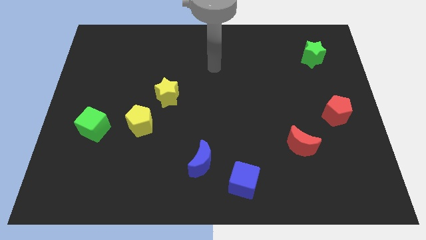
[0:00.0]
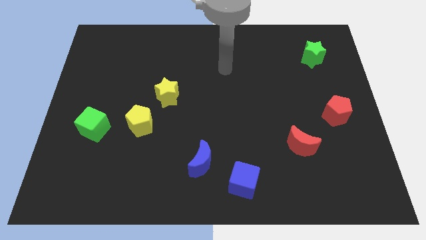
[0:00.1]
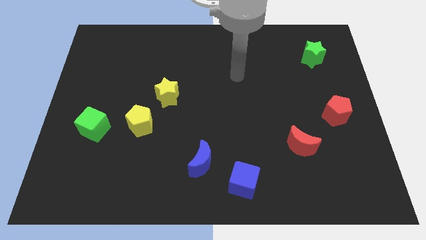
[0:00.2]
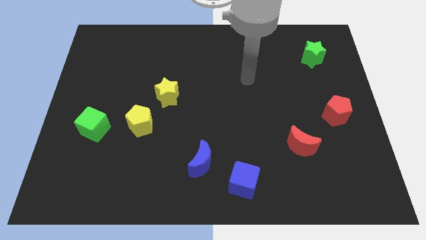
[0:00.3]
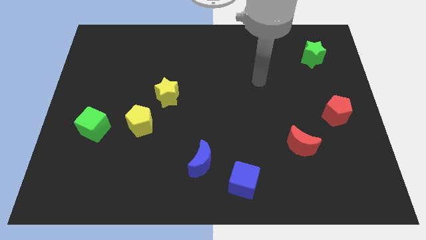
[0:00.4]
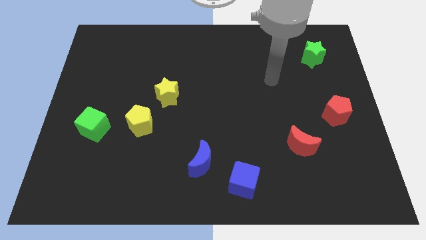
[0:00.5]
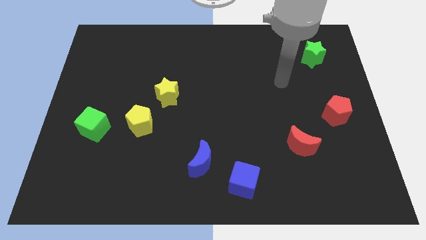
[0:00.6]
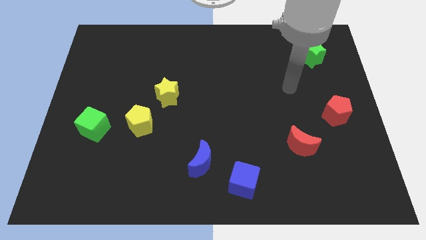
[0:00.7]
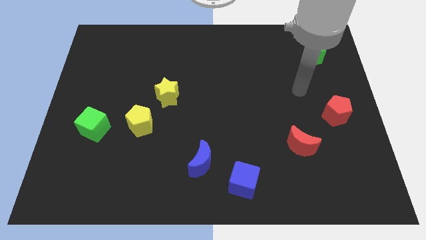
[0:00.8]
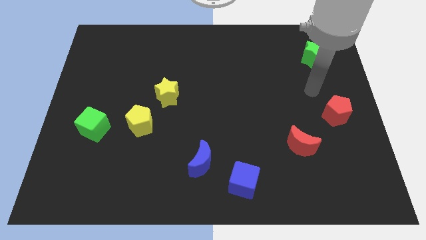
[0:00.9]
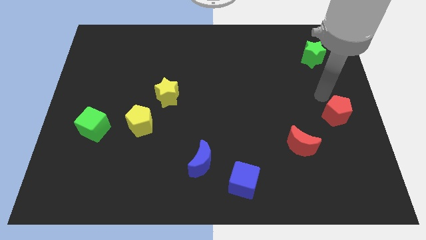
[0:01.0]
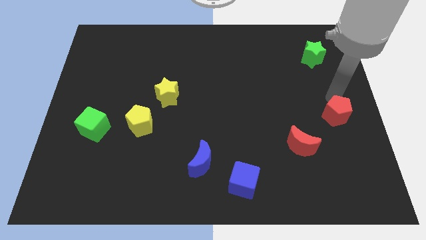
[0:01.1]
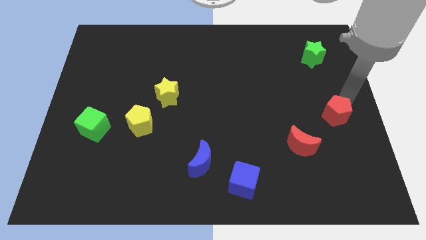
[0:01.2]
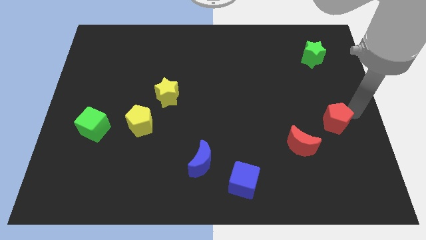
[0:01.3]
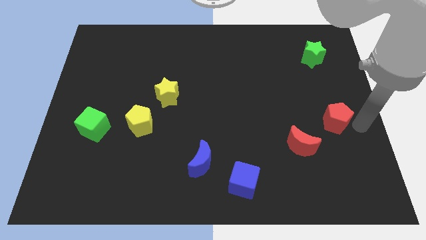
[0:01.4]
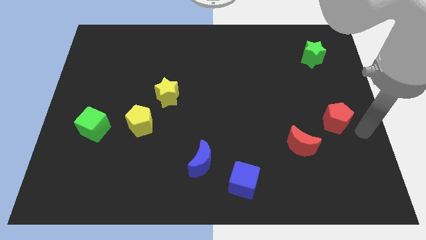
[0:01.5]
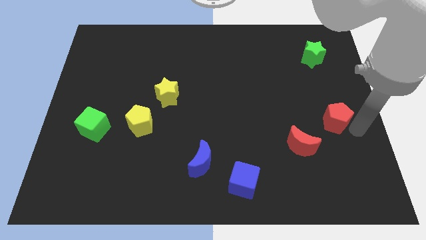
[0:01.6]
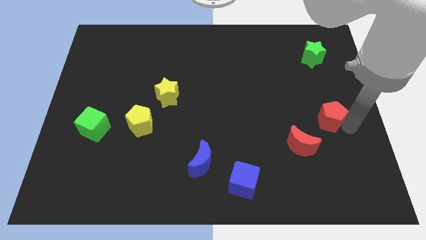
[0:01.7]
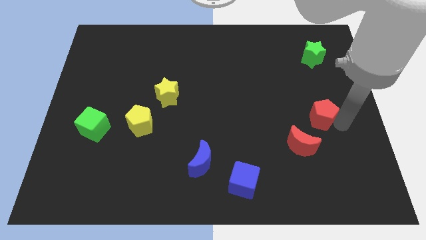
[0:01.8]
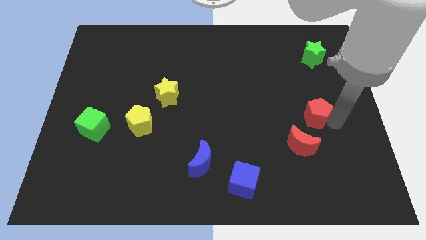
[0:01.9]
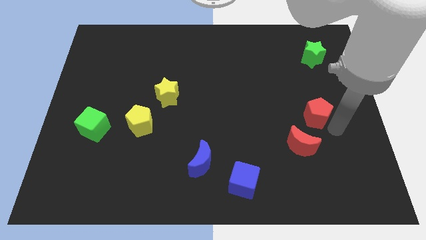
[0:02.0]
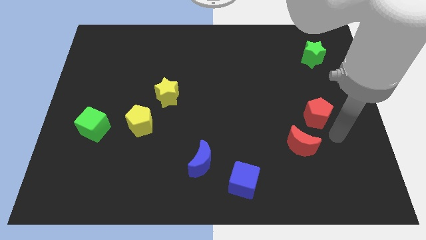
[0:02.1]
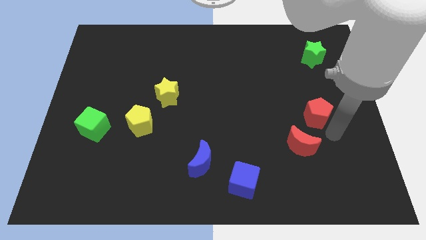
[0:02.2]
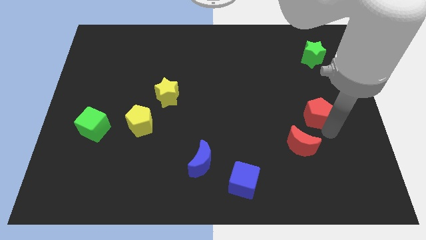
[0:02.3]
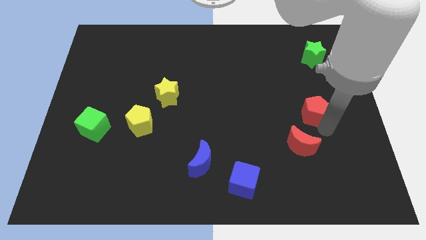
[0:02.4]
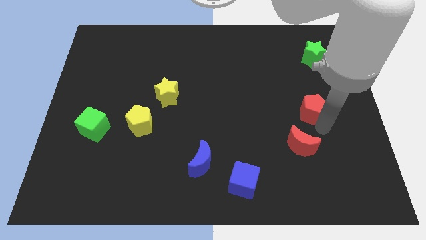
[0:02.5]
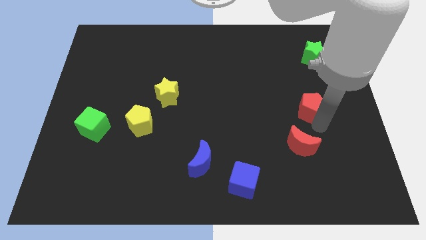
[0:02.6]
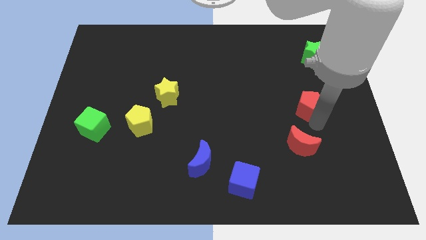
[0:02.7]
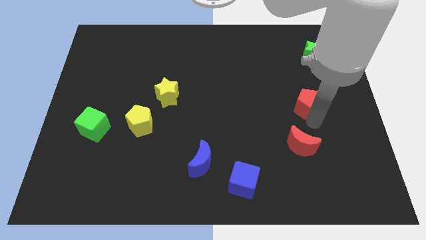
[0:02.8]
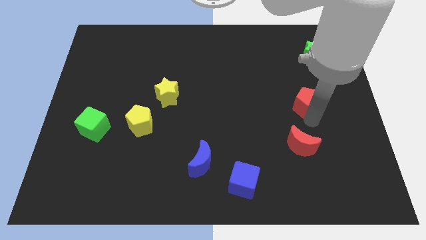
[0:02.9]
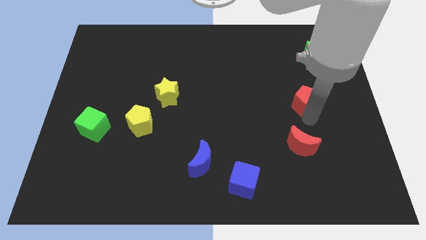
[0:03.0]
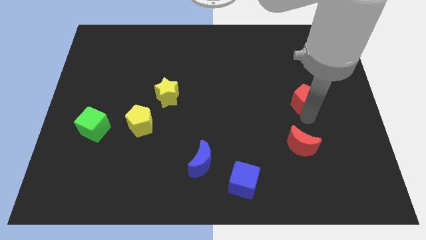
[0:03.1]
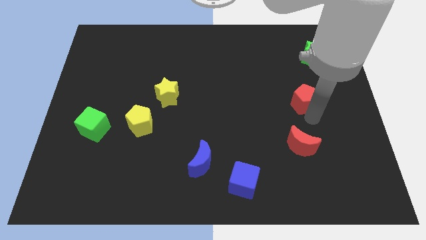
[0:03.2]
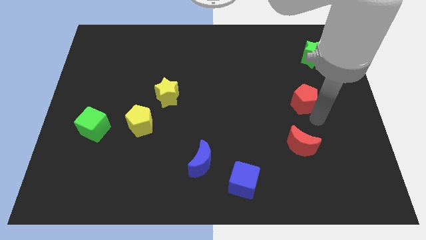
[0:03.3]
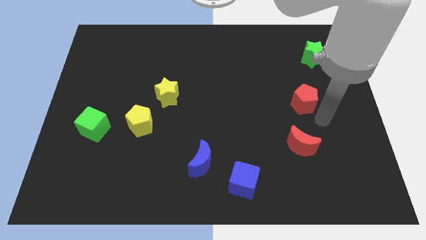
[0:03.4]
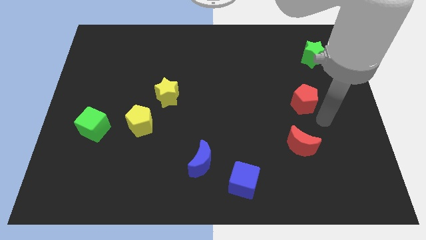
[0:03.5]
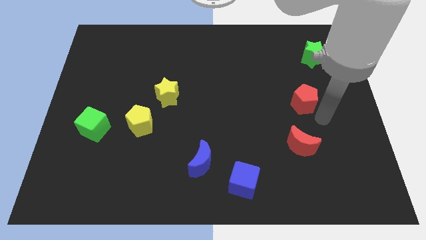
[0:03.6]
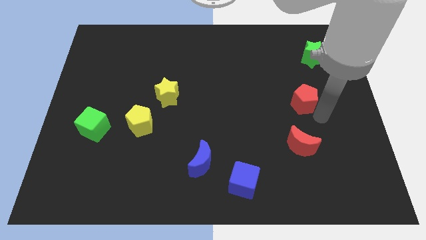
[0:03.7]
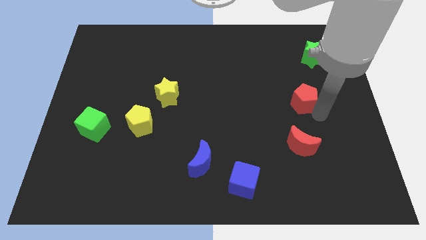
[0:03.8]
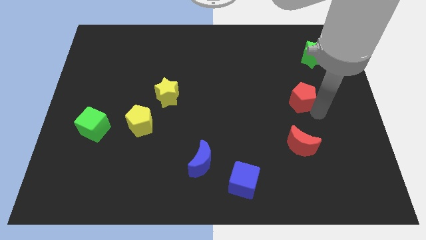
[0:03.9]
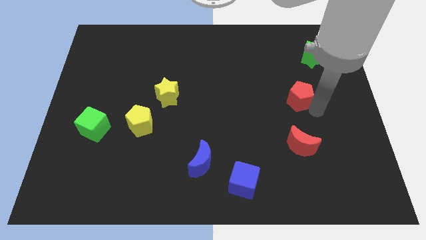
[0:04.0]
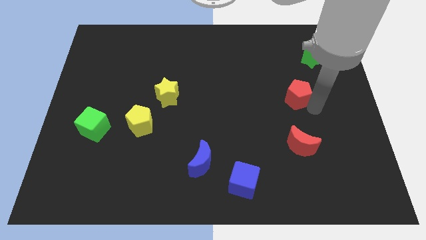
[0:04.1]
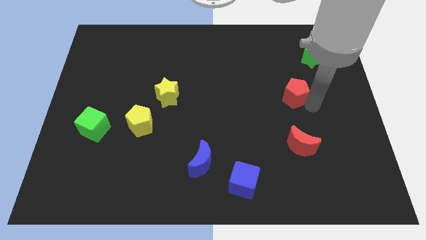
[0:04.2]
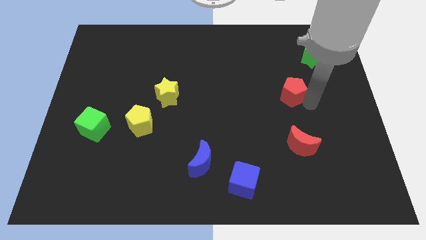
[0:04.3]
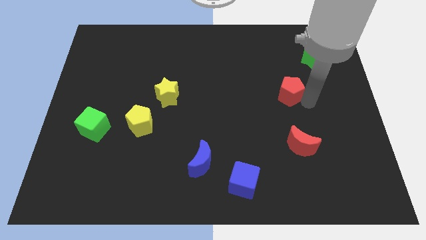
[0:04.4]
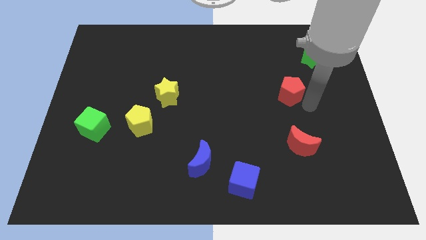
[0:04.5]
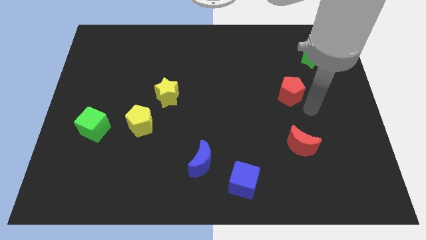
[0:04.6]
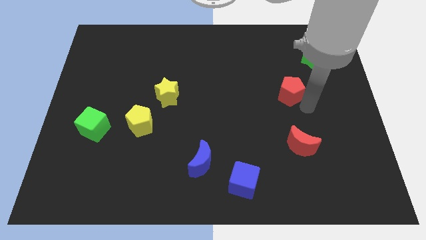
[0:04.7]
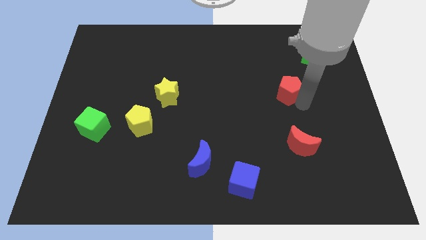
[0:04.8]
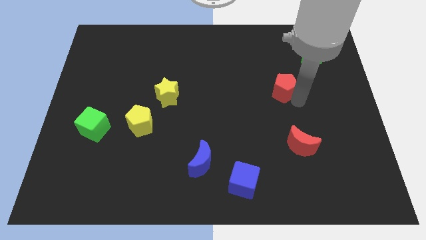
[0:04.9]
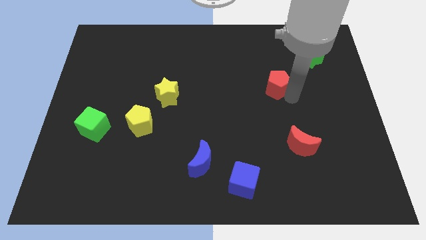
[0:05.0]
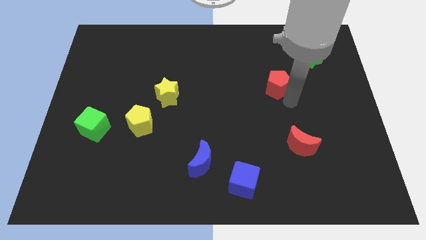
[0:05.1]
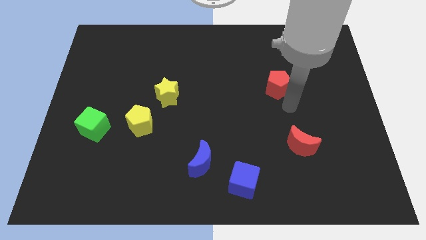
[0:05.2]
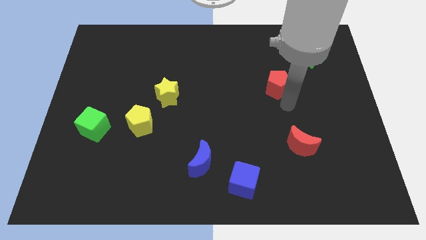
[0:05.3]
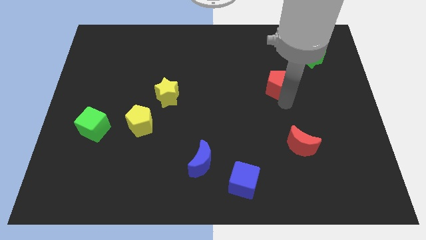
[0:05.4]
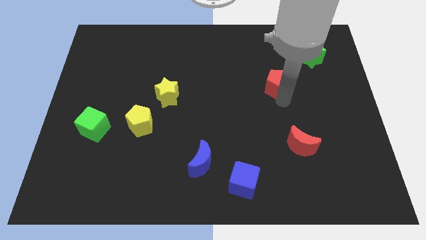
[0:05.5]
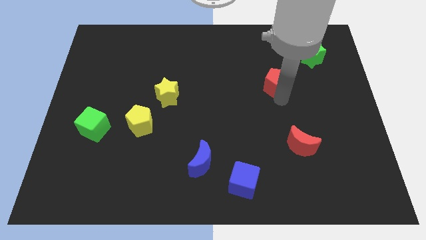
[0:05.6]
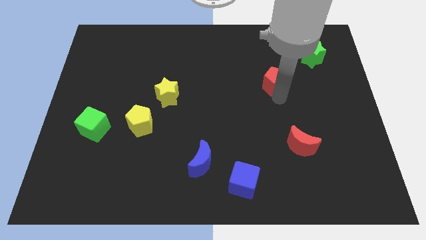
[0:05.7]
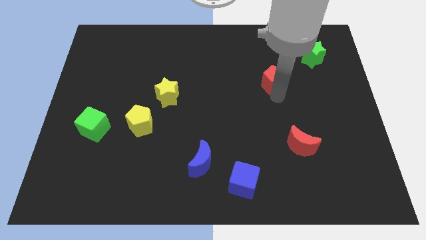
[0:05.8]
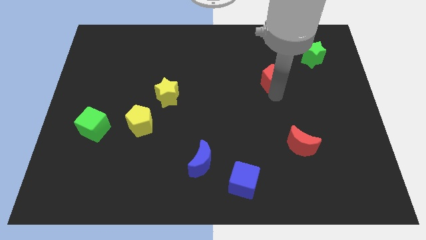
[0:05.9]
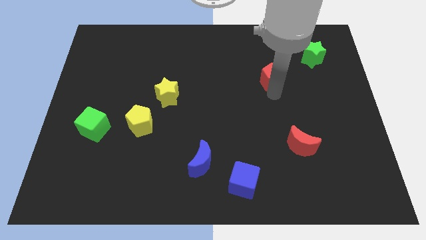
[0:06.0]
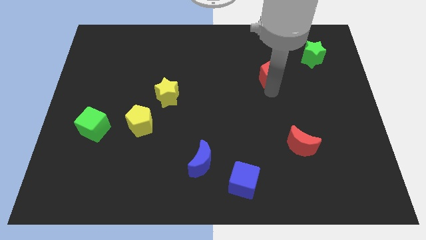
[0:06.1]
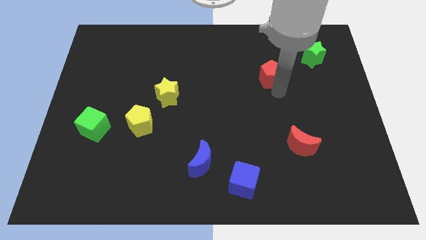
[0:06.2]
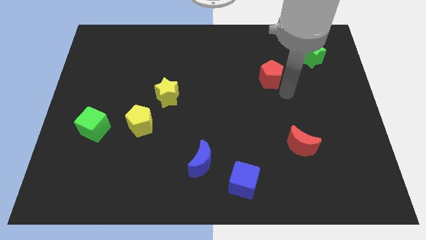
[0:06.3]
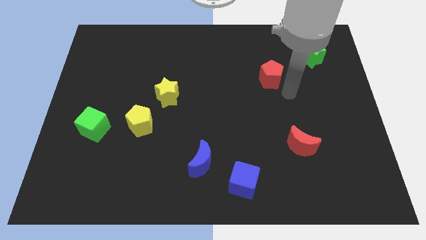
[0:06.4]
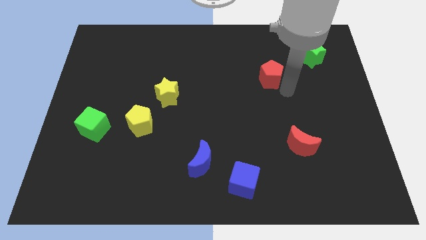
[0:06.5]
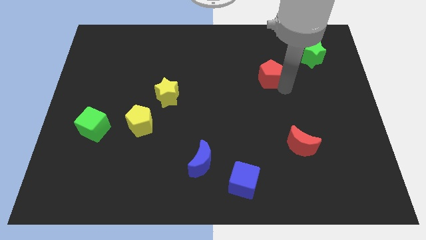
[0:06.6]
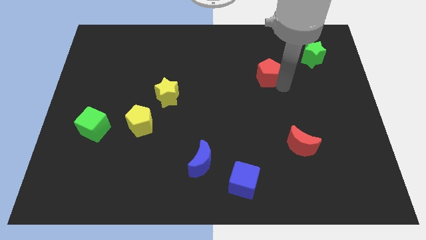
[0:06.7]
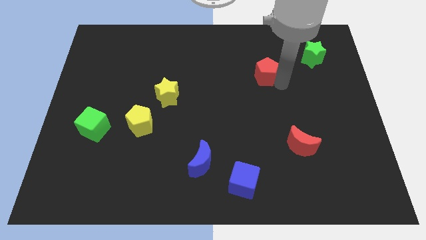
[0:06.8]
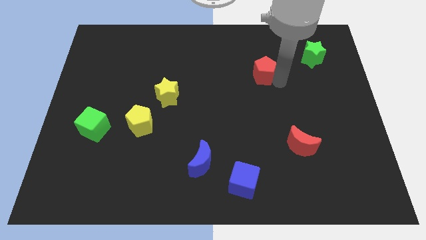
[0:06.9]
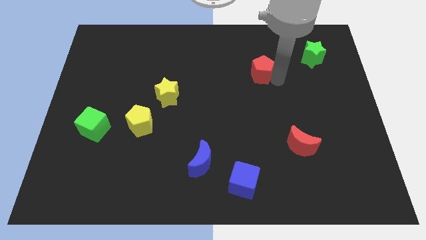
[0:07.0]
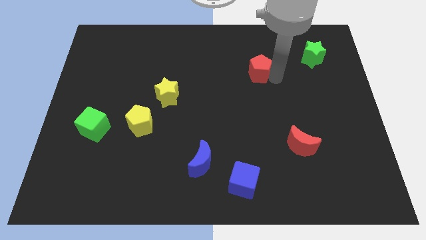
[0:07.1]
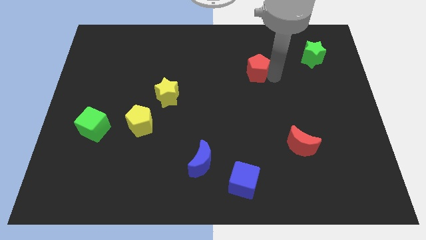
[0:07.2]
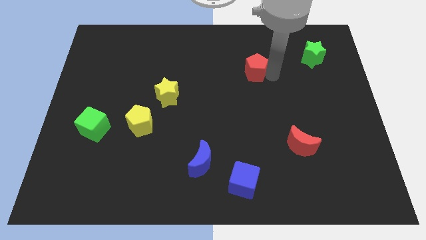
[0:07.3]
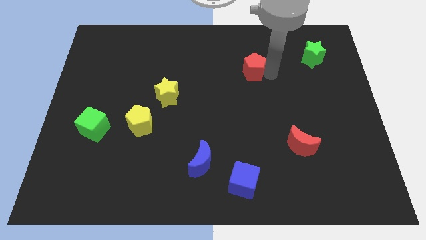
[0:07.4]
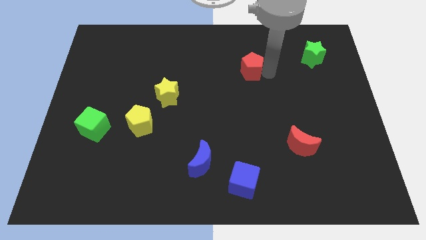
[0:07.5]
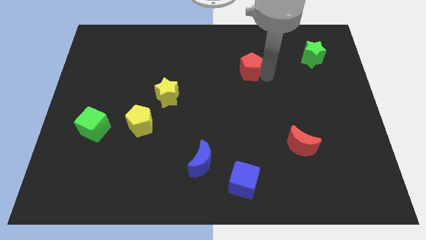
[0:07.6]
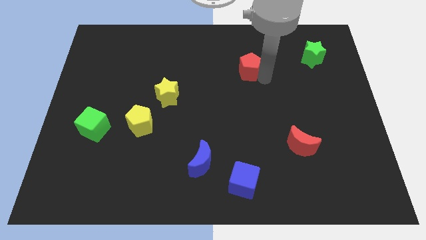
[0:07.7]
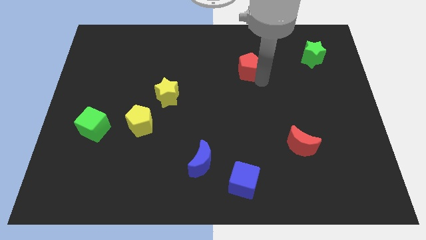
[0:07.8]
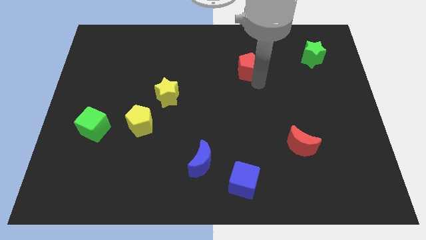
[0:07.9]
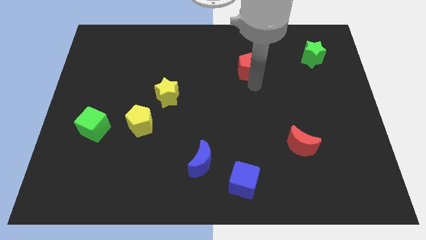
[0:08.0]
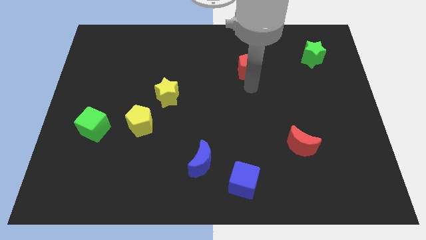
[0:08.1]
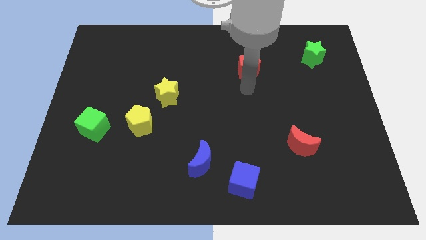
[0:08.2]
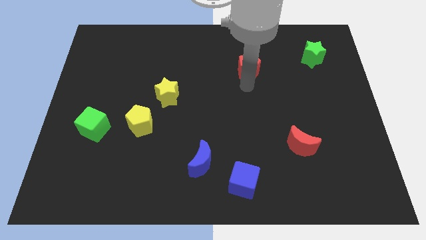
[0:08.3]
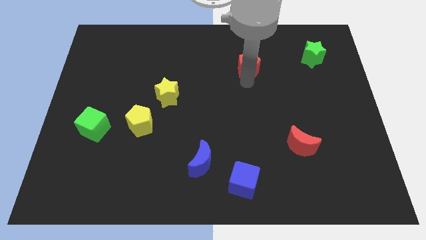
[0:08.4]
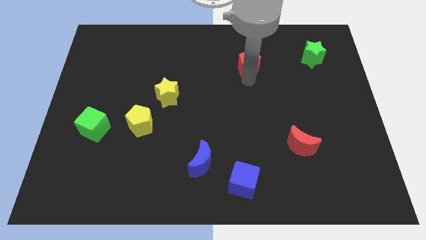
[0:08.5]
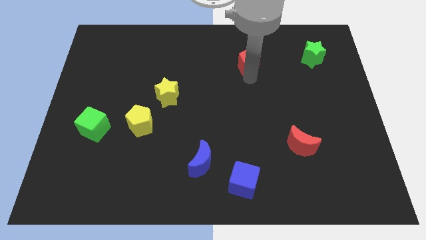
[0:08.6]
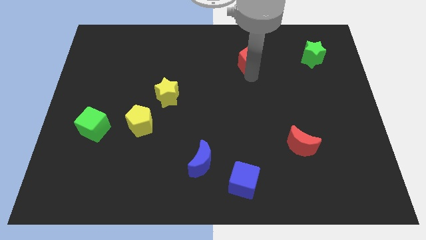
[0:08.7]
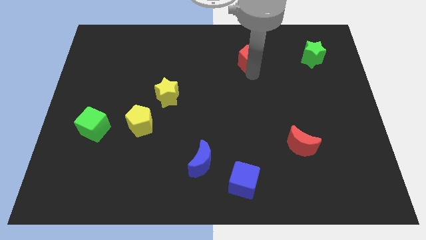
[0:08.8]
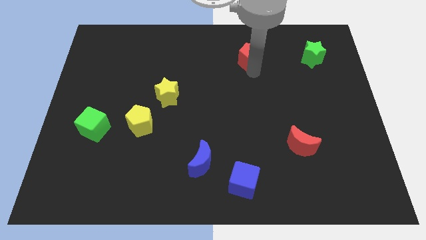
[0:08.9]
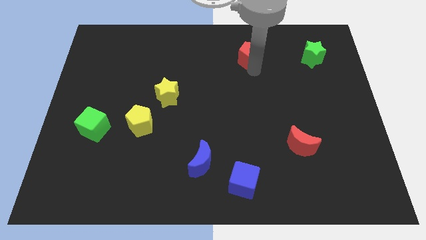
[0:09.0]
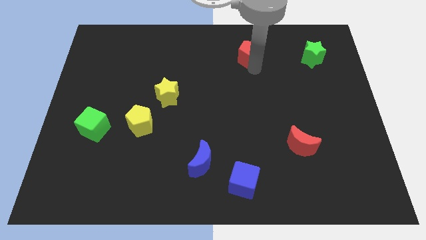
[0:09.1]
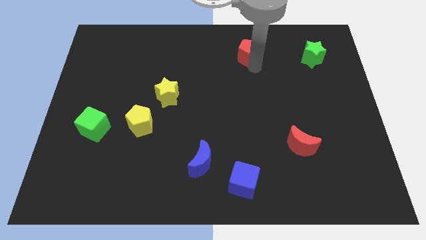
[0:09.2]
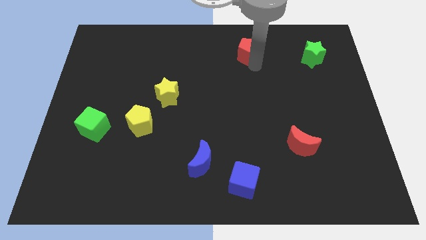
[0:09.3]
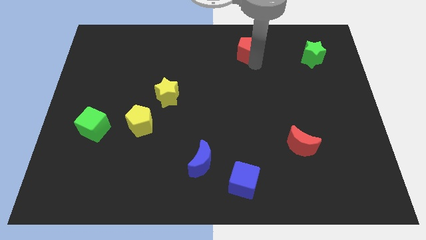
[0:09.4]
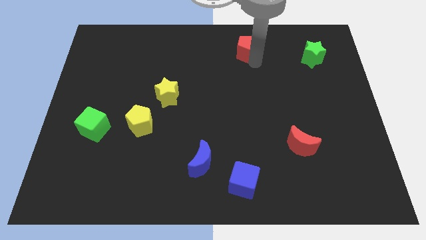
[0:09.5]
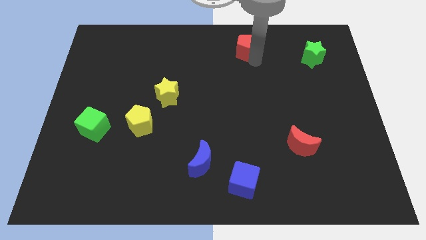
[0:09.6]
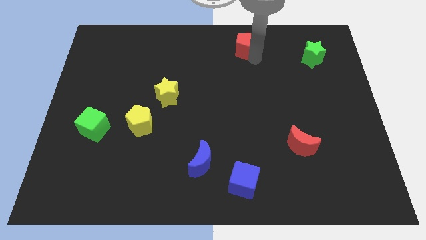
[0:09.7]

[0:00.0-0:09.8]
move the red pentagon to the top side
